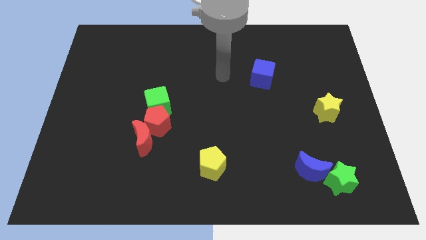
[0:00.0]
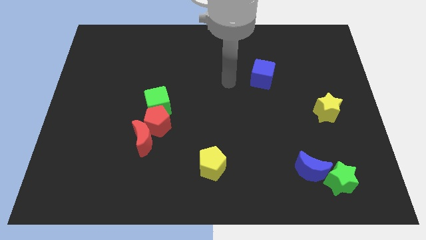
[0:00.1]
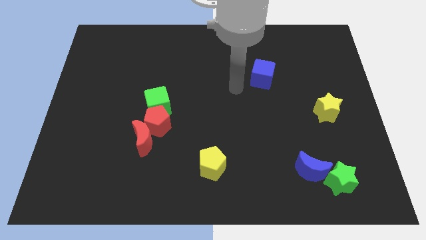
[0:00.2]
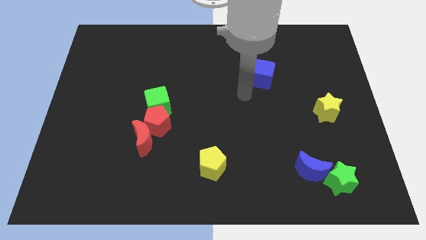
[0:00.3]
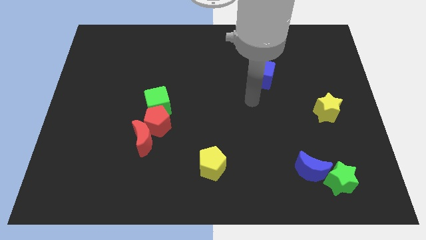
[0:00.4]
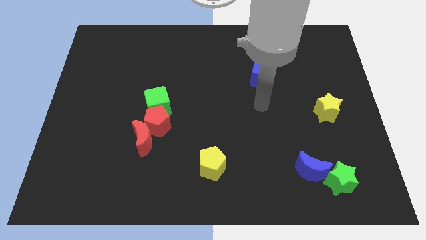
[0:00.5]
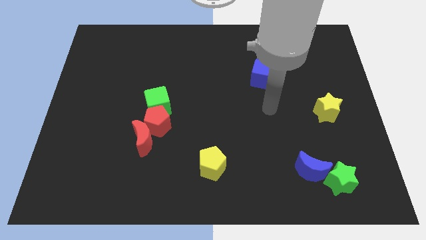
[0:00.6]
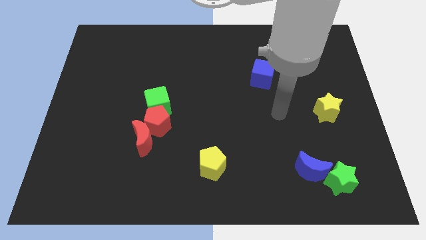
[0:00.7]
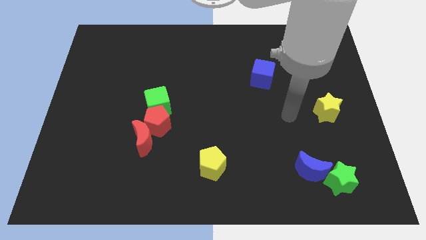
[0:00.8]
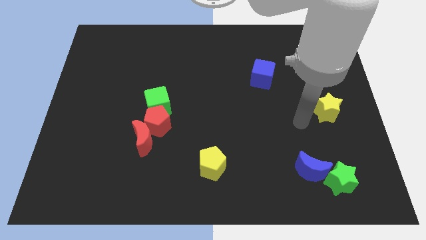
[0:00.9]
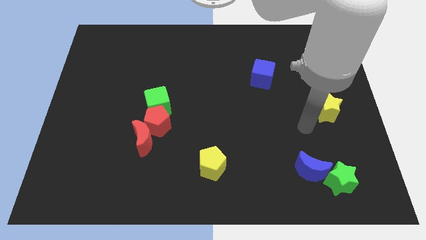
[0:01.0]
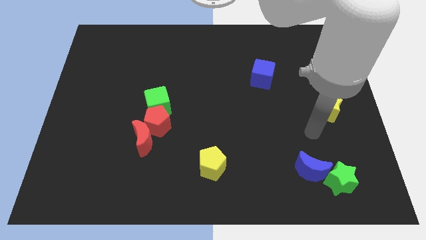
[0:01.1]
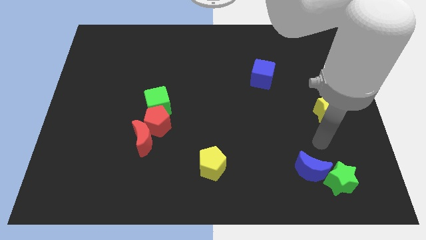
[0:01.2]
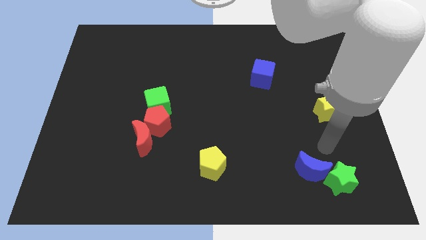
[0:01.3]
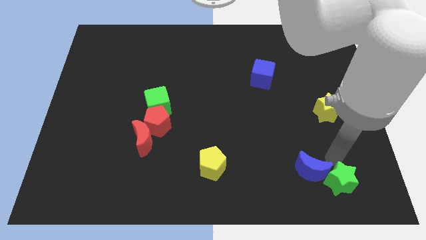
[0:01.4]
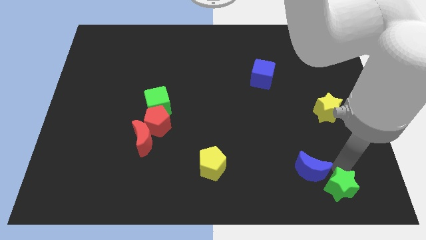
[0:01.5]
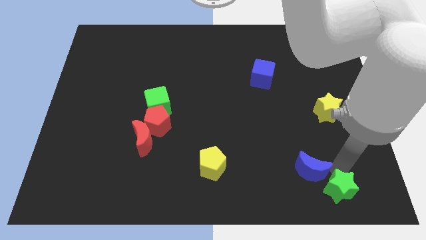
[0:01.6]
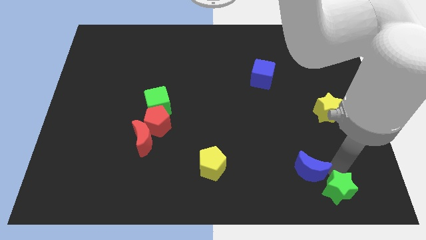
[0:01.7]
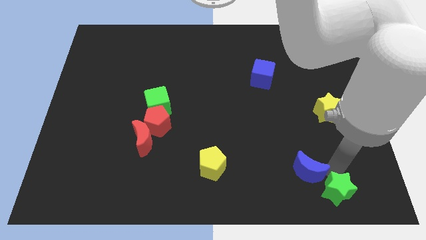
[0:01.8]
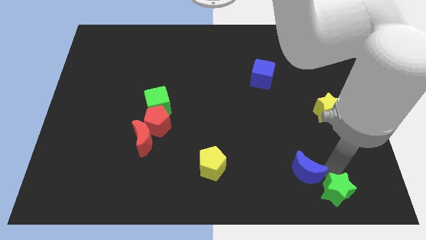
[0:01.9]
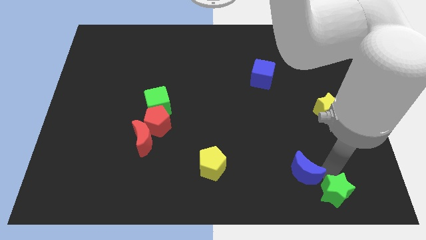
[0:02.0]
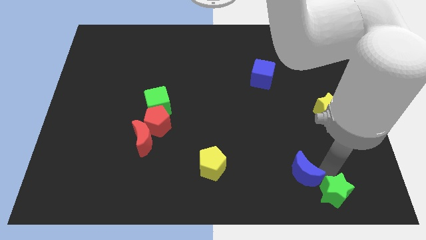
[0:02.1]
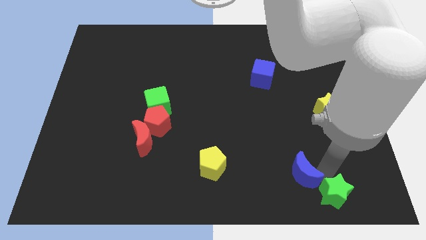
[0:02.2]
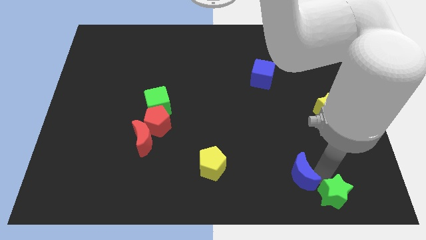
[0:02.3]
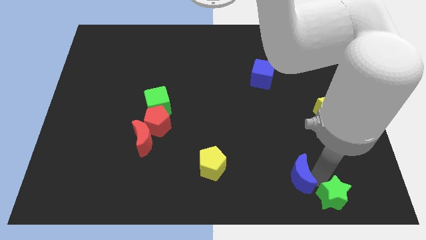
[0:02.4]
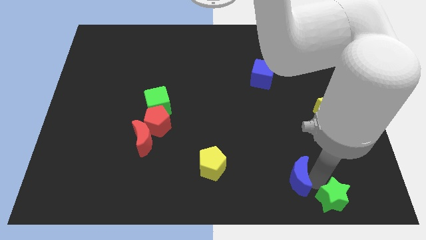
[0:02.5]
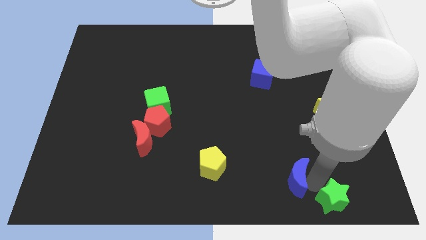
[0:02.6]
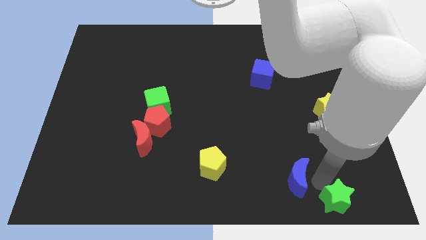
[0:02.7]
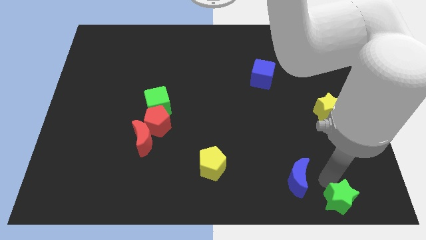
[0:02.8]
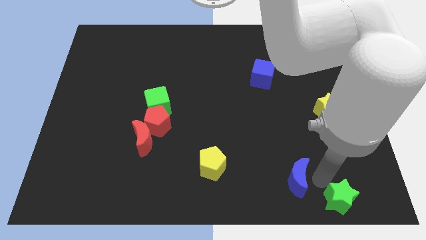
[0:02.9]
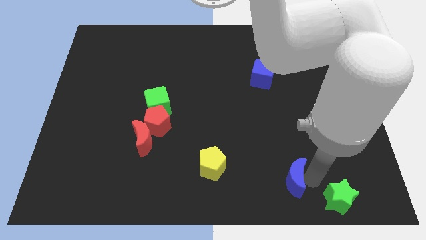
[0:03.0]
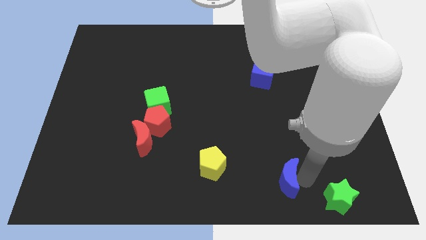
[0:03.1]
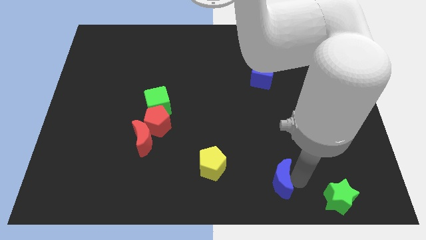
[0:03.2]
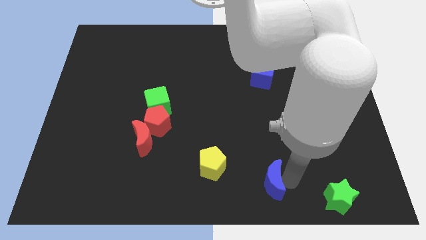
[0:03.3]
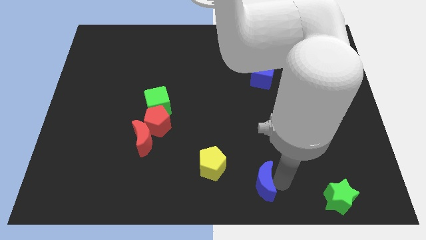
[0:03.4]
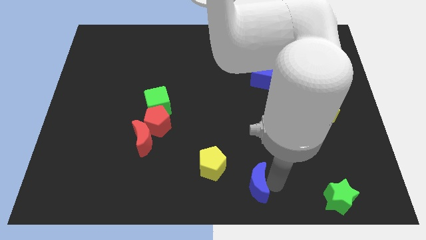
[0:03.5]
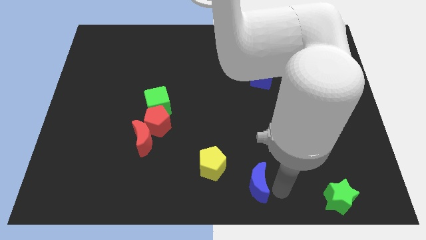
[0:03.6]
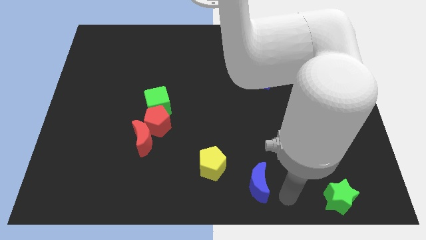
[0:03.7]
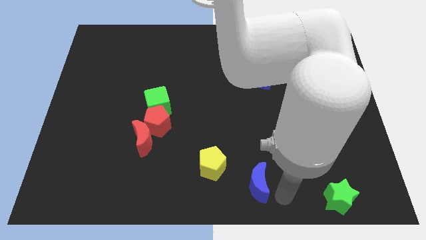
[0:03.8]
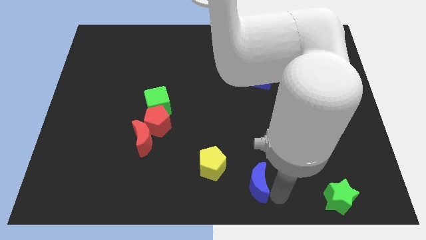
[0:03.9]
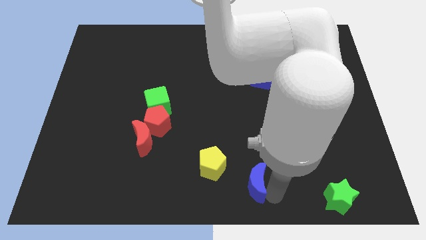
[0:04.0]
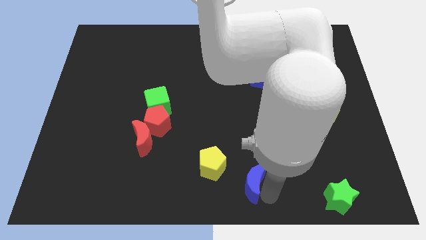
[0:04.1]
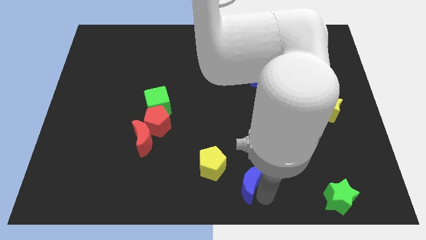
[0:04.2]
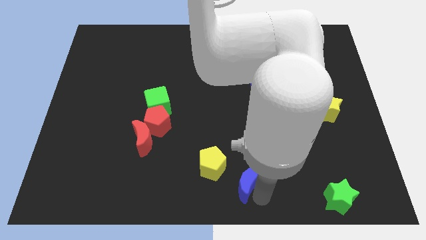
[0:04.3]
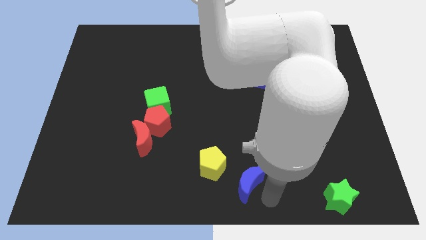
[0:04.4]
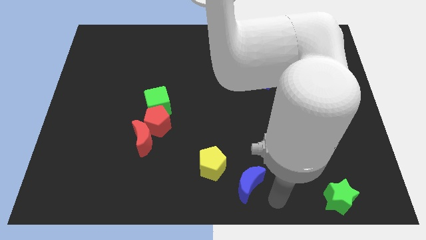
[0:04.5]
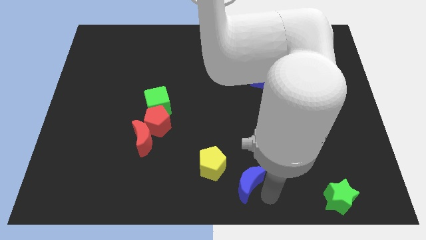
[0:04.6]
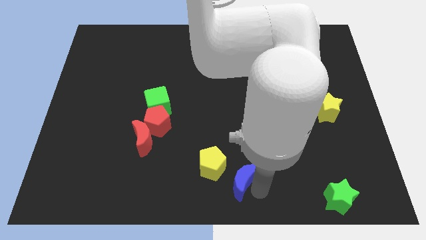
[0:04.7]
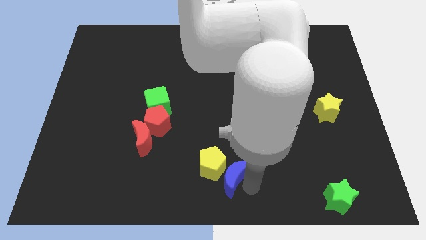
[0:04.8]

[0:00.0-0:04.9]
slide the blue moon next to the yellow pentagon

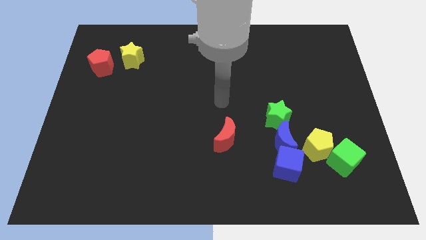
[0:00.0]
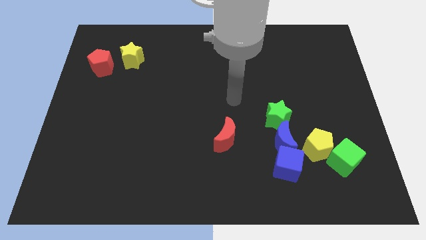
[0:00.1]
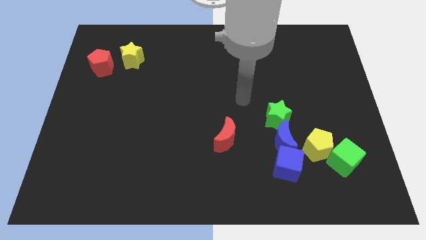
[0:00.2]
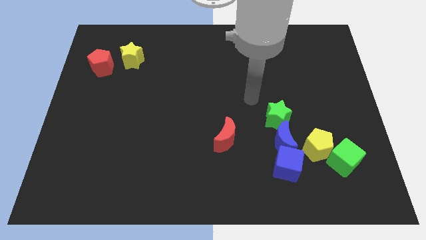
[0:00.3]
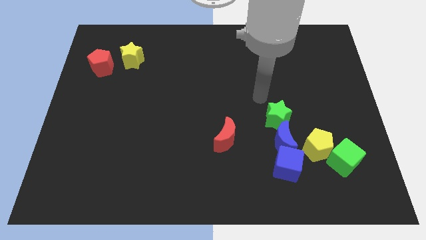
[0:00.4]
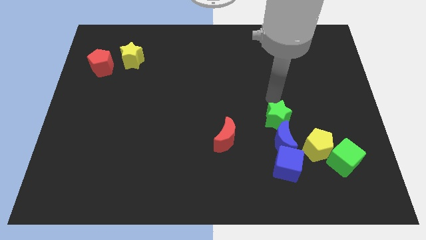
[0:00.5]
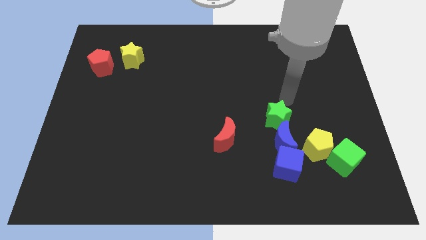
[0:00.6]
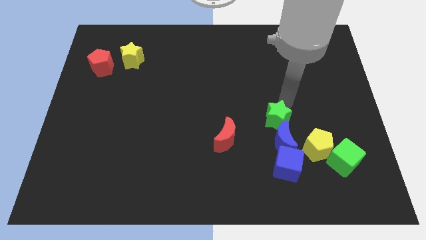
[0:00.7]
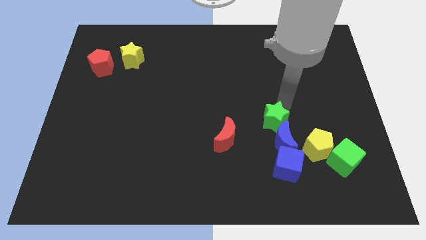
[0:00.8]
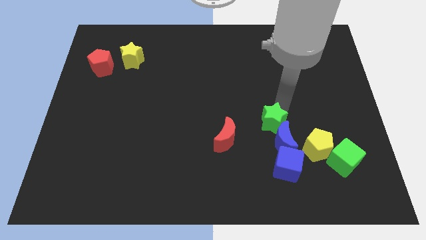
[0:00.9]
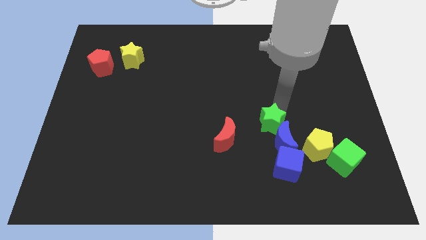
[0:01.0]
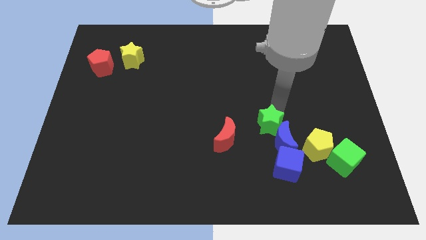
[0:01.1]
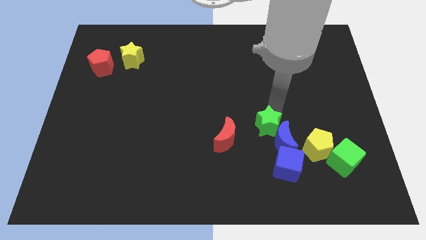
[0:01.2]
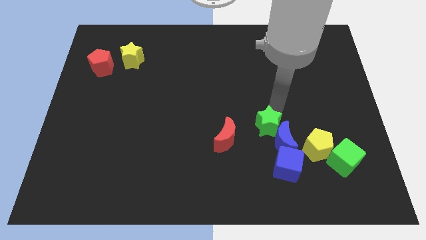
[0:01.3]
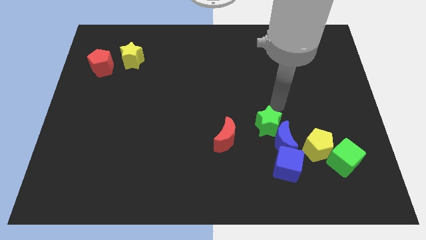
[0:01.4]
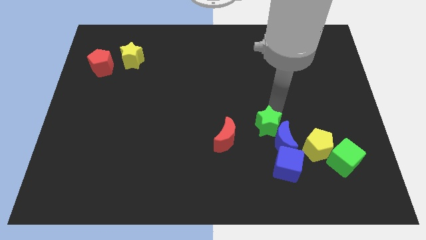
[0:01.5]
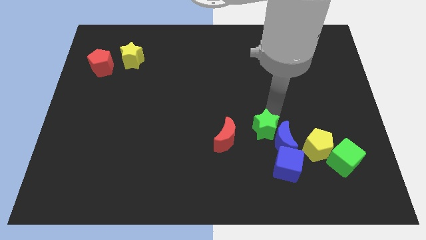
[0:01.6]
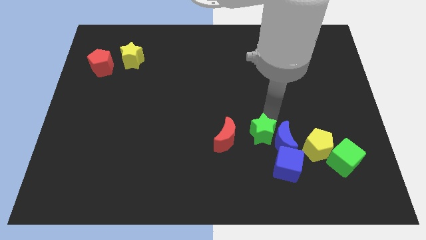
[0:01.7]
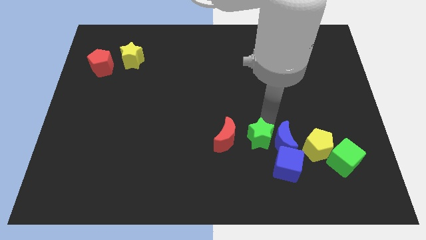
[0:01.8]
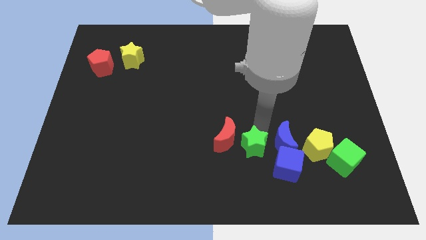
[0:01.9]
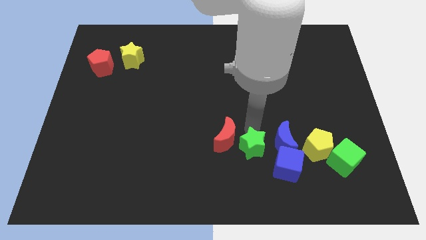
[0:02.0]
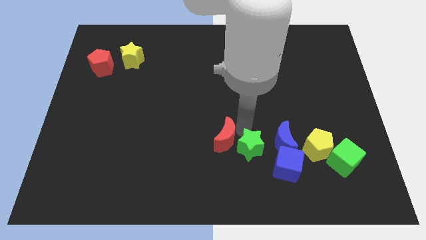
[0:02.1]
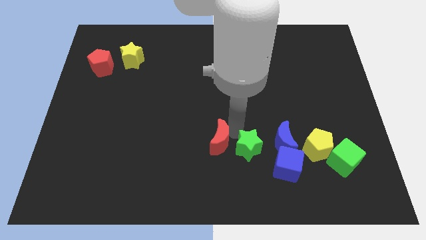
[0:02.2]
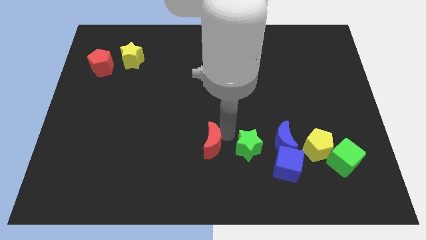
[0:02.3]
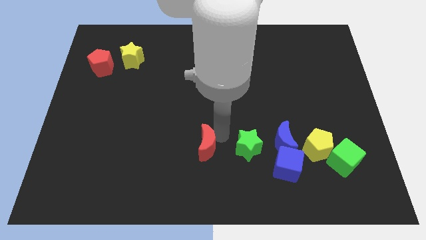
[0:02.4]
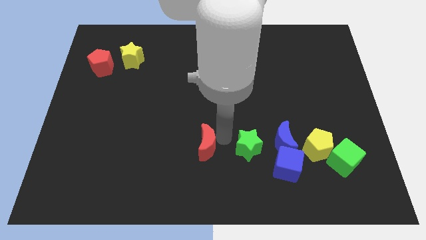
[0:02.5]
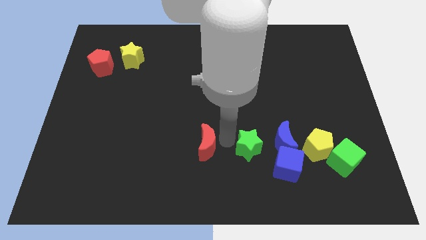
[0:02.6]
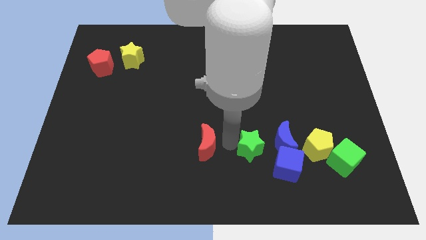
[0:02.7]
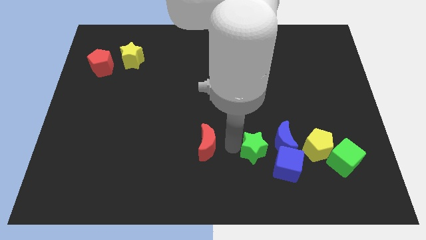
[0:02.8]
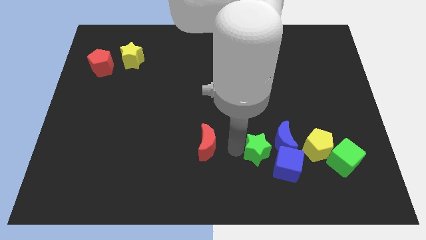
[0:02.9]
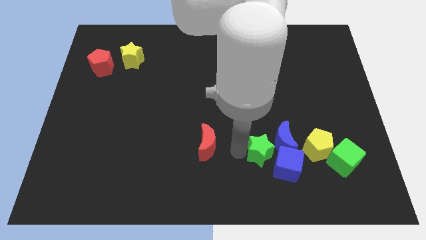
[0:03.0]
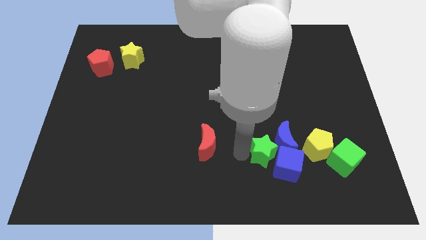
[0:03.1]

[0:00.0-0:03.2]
slide the green star next to the blue cube
